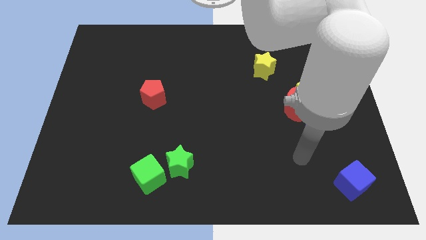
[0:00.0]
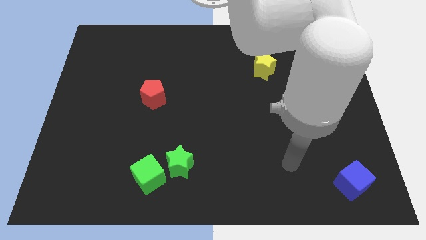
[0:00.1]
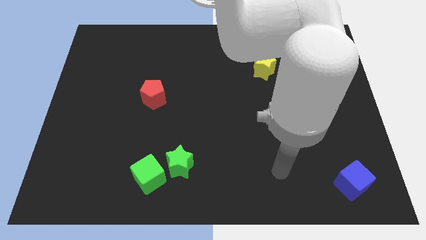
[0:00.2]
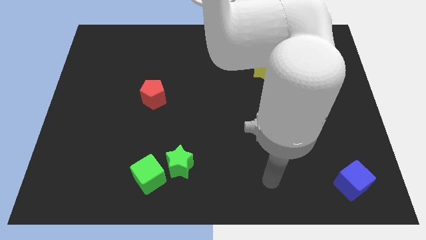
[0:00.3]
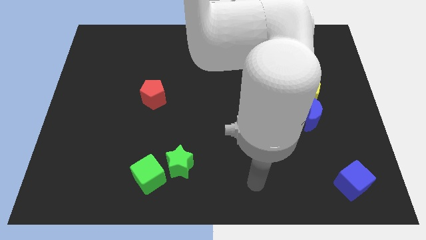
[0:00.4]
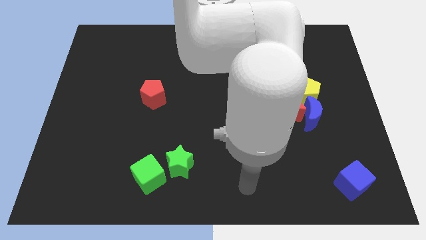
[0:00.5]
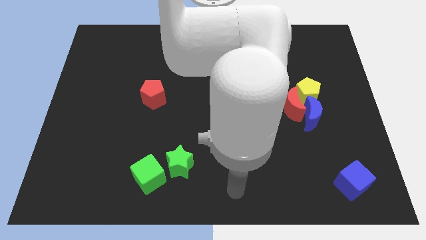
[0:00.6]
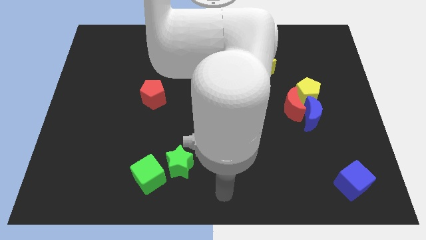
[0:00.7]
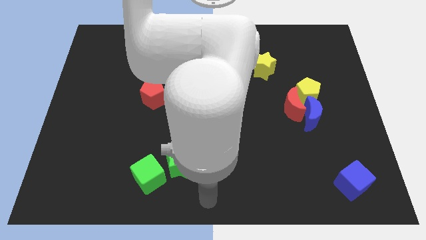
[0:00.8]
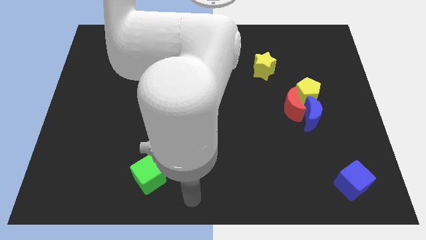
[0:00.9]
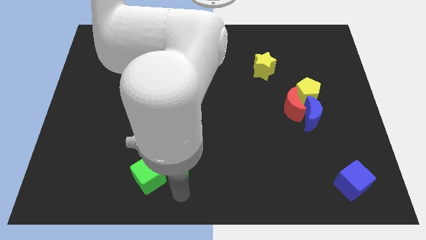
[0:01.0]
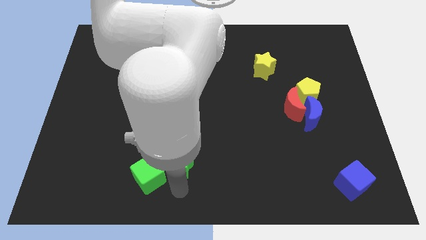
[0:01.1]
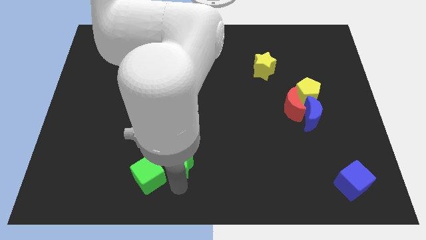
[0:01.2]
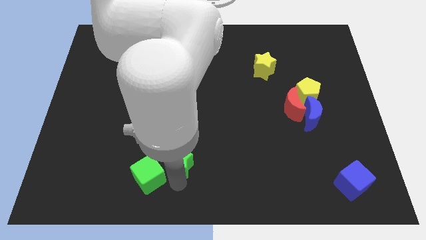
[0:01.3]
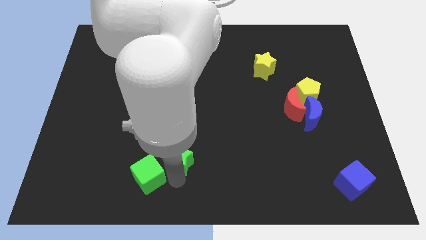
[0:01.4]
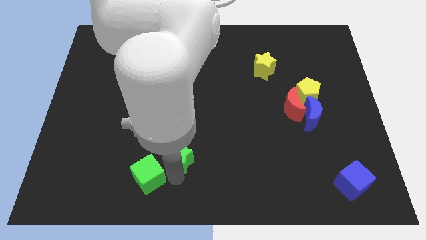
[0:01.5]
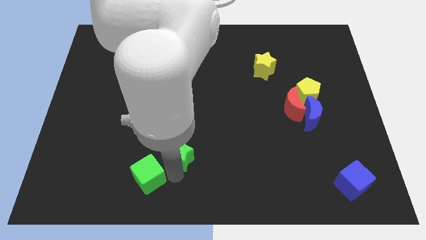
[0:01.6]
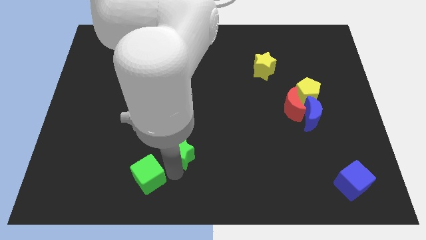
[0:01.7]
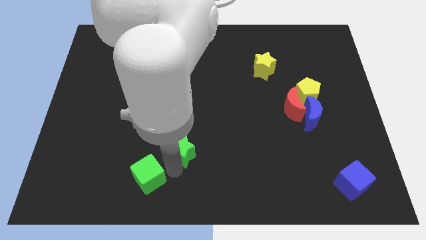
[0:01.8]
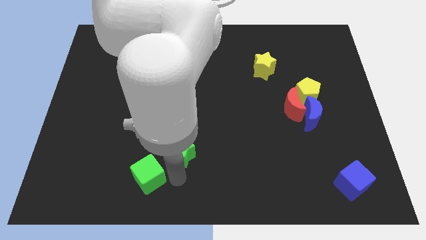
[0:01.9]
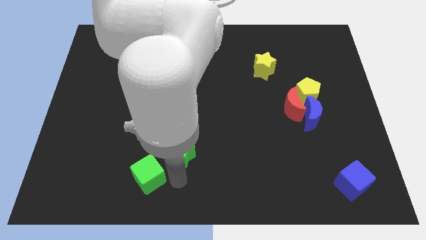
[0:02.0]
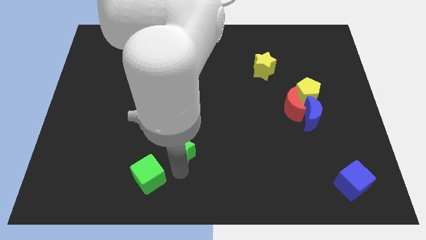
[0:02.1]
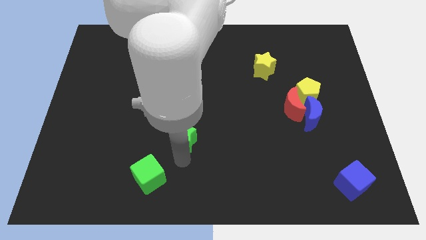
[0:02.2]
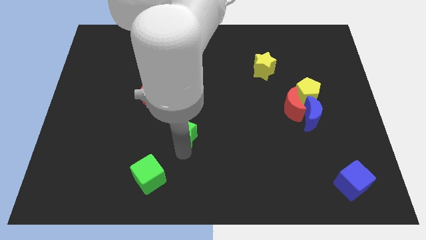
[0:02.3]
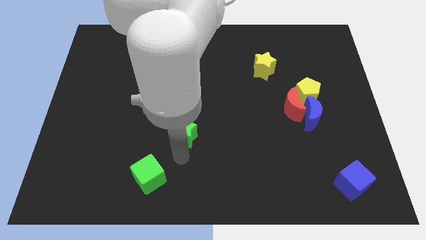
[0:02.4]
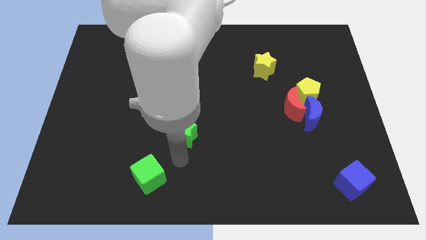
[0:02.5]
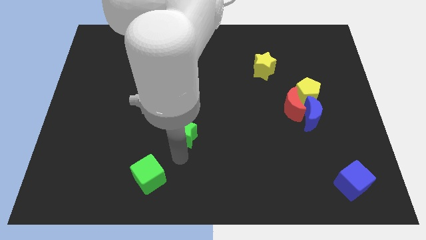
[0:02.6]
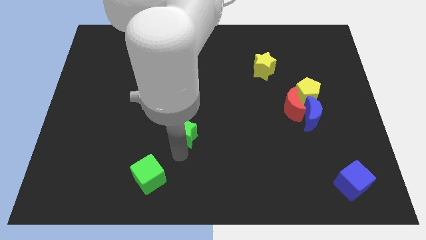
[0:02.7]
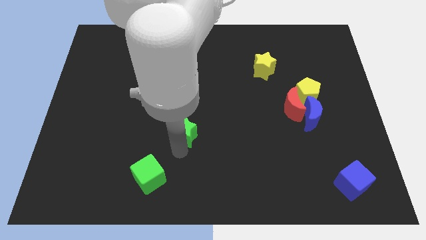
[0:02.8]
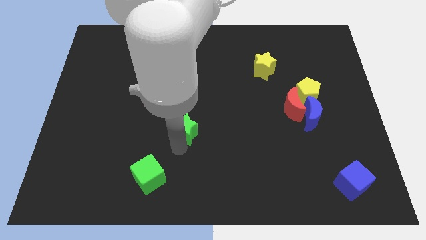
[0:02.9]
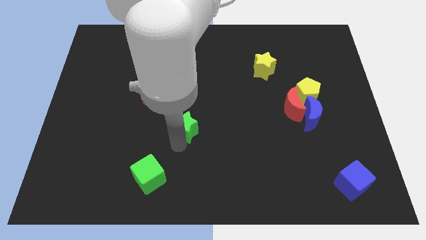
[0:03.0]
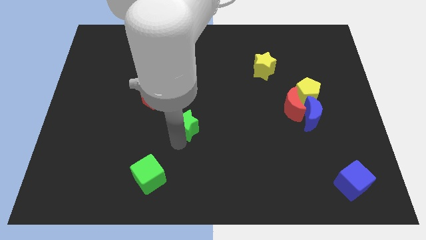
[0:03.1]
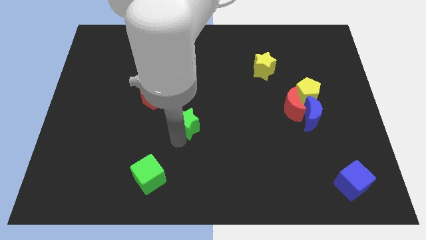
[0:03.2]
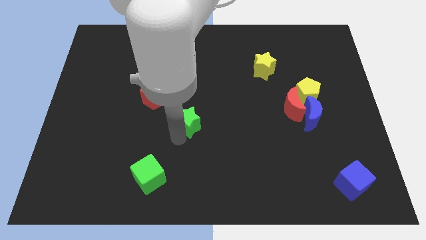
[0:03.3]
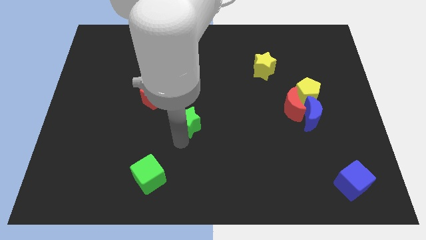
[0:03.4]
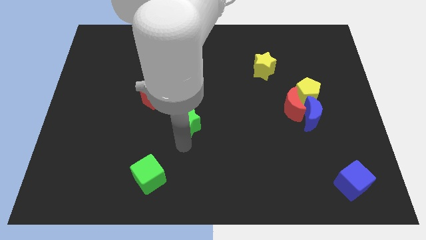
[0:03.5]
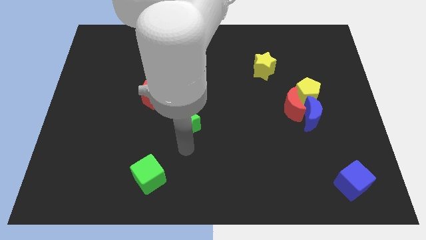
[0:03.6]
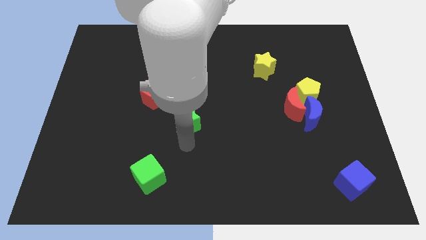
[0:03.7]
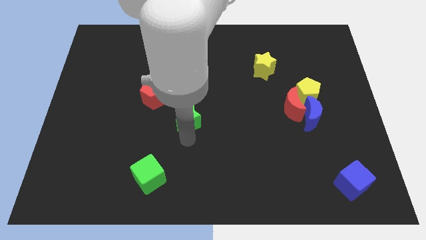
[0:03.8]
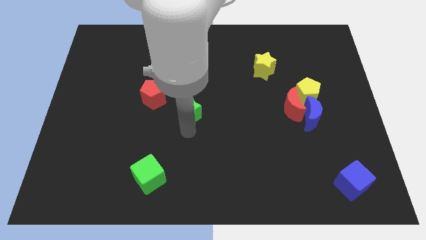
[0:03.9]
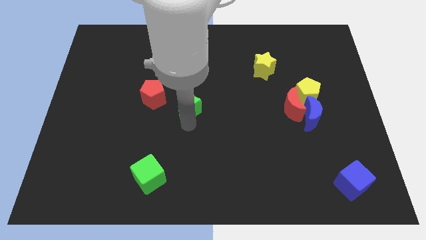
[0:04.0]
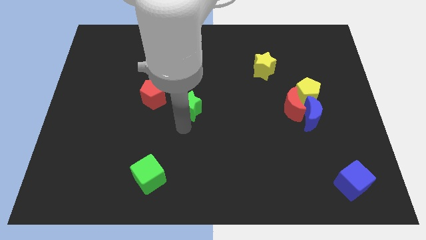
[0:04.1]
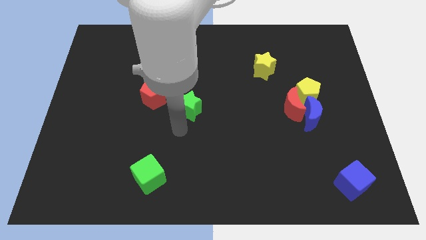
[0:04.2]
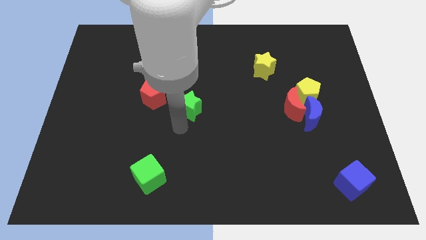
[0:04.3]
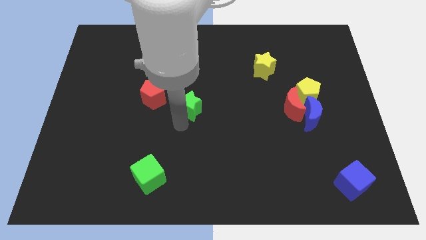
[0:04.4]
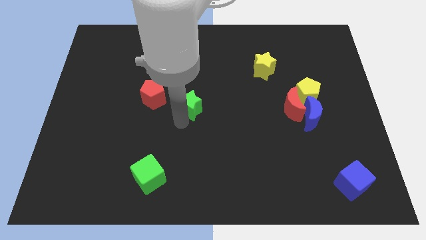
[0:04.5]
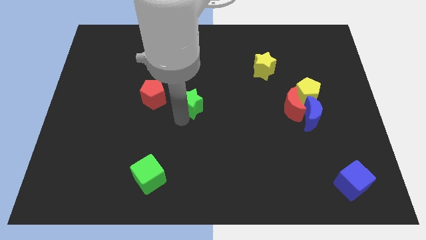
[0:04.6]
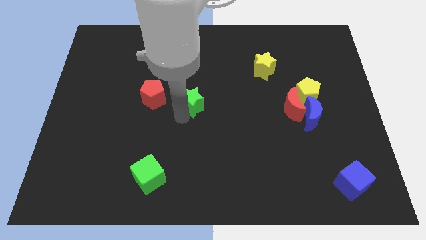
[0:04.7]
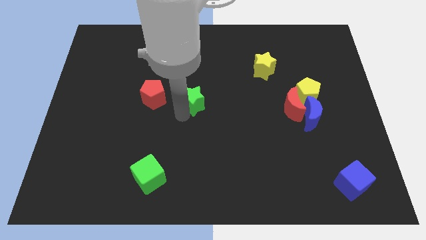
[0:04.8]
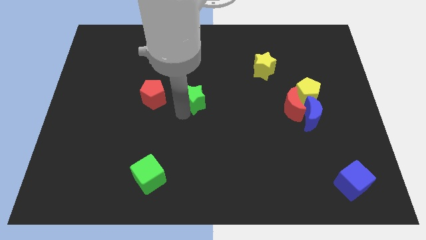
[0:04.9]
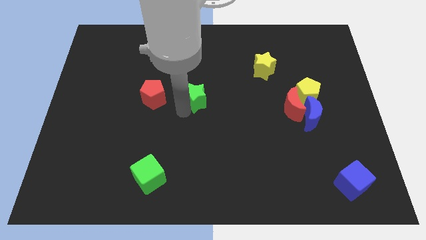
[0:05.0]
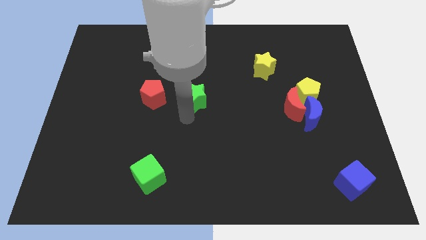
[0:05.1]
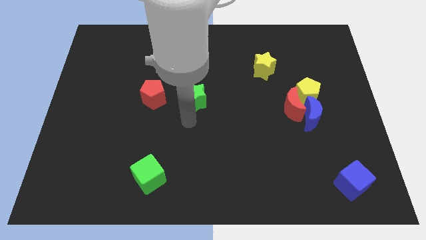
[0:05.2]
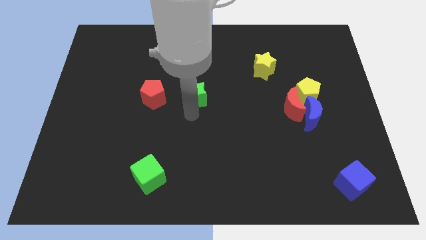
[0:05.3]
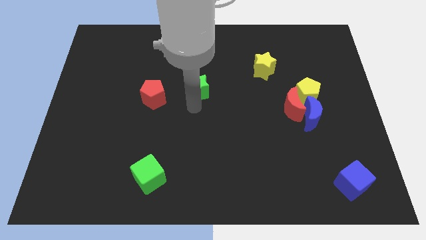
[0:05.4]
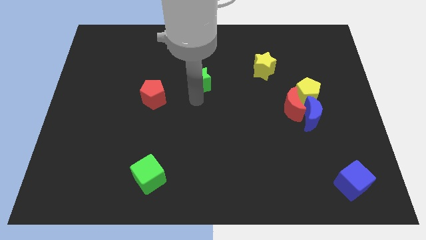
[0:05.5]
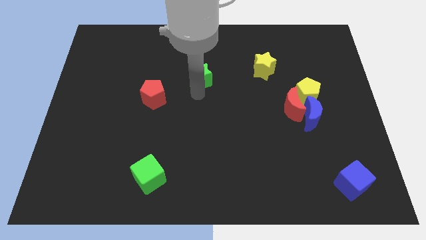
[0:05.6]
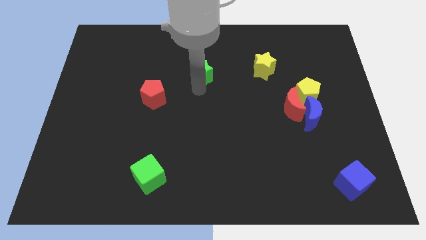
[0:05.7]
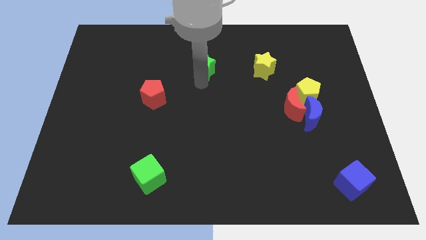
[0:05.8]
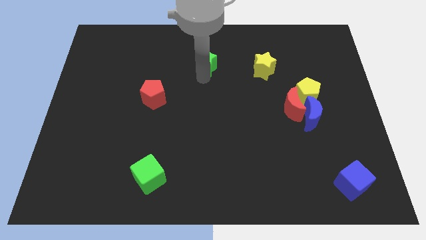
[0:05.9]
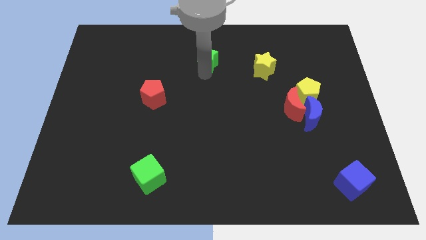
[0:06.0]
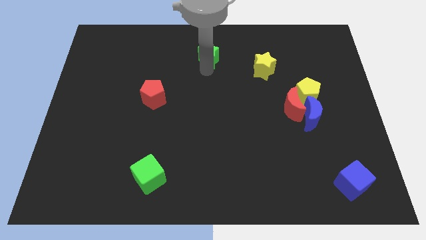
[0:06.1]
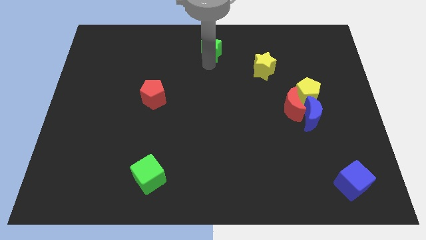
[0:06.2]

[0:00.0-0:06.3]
put the green star to the top side

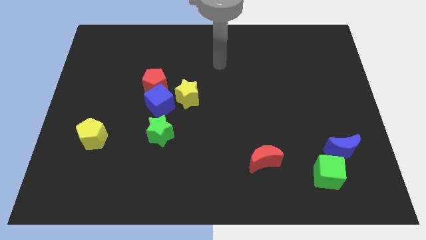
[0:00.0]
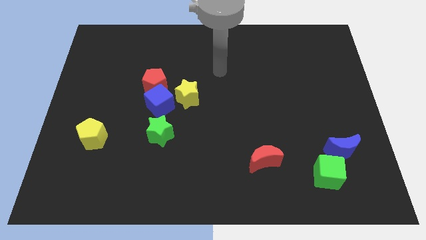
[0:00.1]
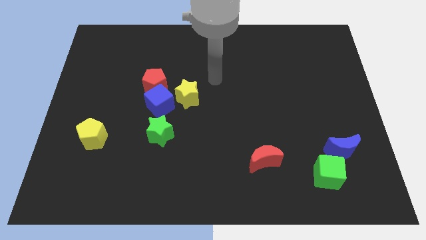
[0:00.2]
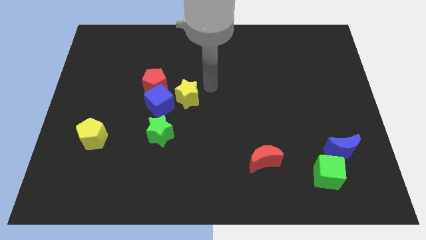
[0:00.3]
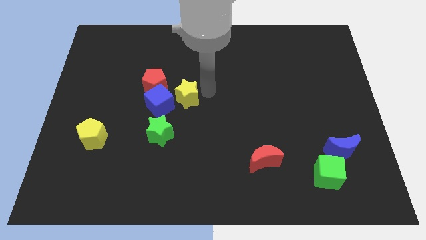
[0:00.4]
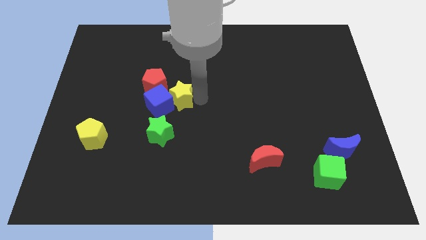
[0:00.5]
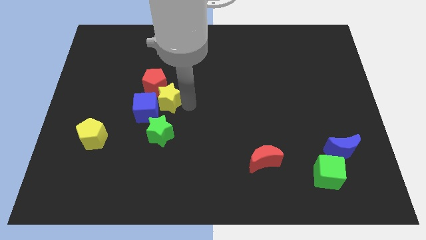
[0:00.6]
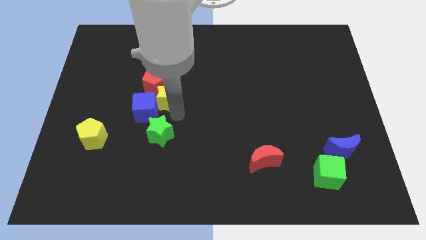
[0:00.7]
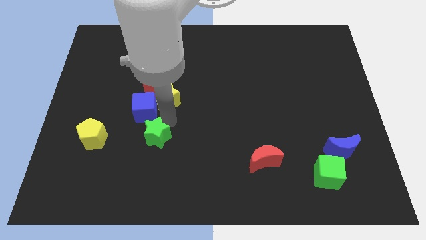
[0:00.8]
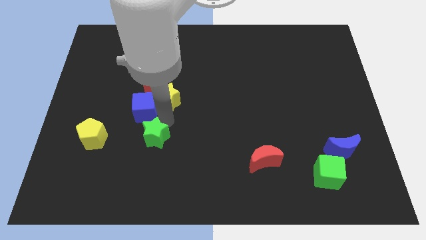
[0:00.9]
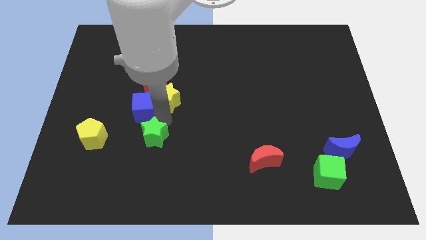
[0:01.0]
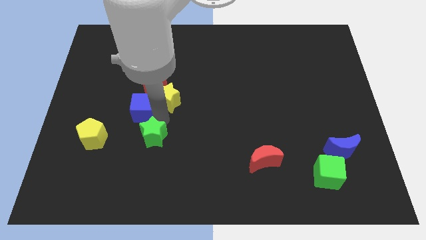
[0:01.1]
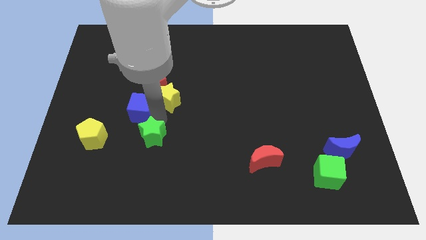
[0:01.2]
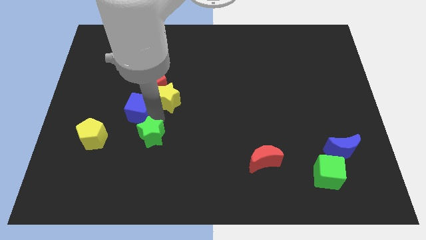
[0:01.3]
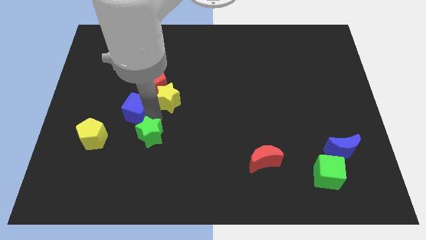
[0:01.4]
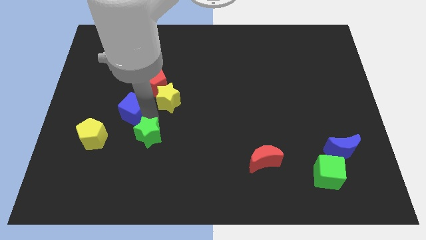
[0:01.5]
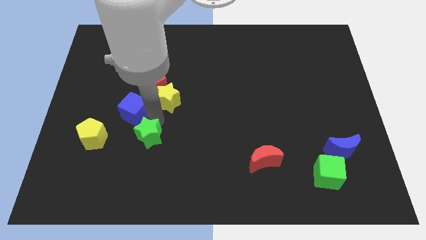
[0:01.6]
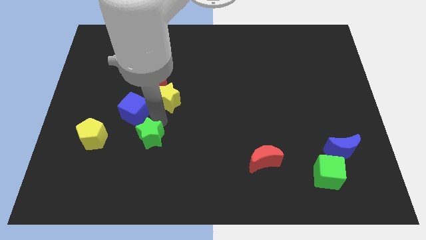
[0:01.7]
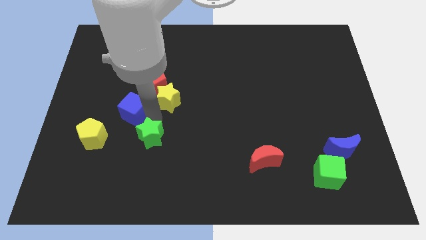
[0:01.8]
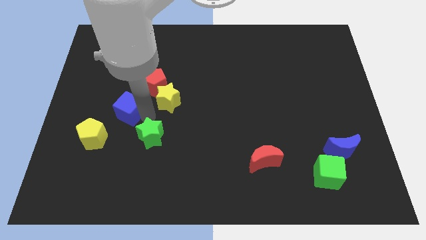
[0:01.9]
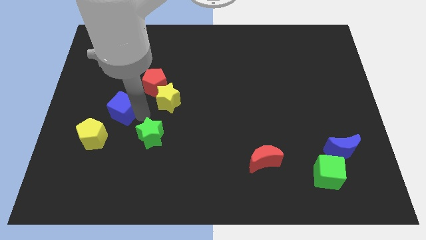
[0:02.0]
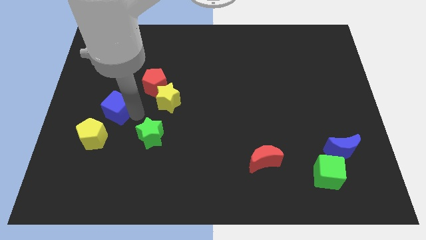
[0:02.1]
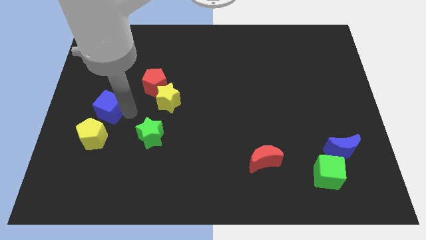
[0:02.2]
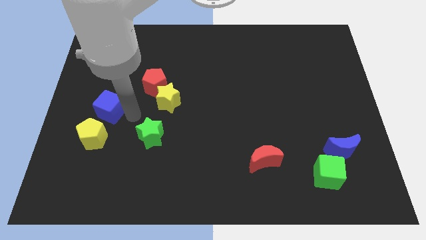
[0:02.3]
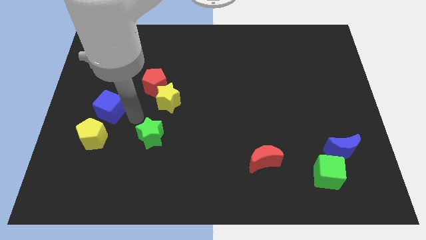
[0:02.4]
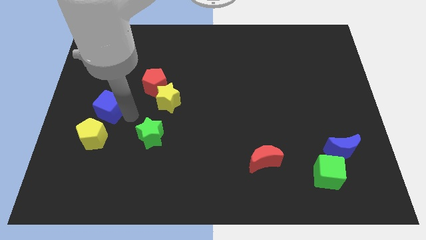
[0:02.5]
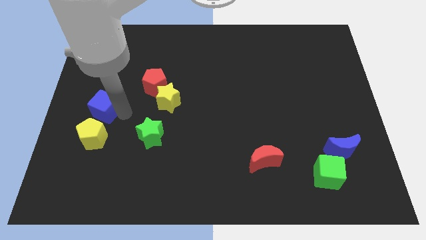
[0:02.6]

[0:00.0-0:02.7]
put the blue cube to the left side of the board
